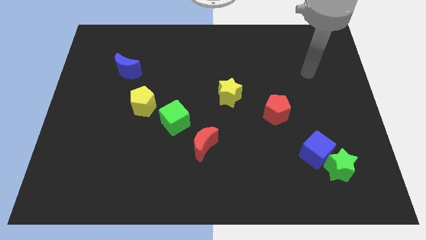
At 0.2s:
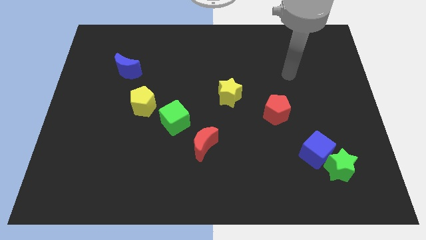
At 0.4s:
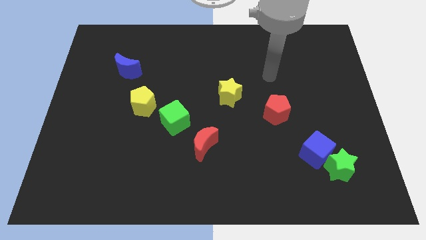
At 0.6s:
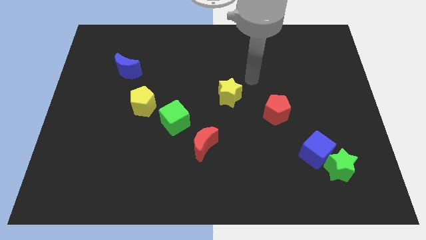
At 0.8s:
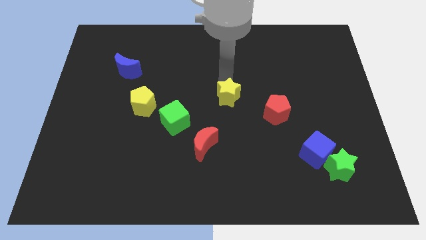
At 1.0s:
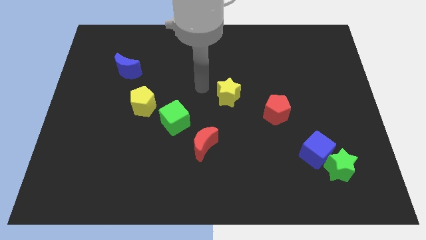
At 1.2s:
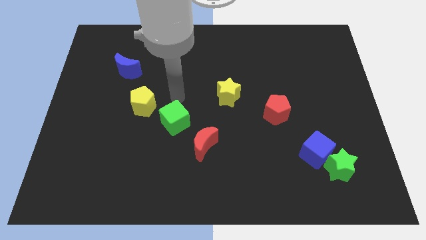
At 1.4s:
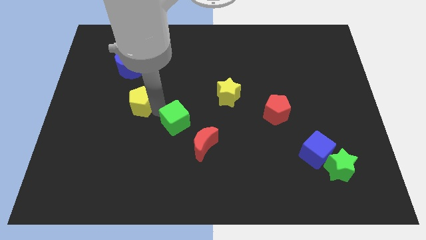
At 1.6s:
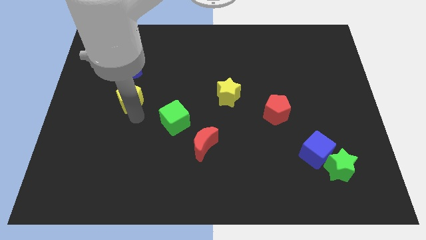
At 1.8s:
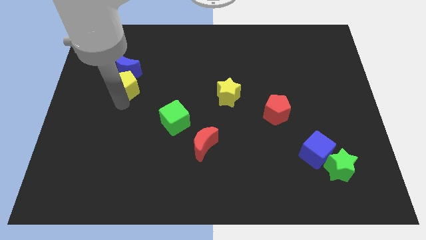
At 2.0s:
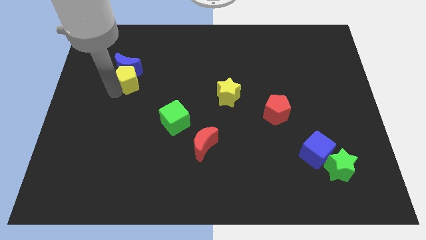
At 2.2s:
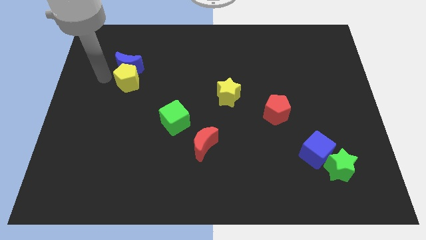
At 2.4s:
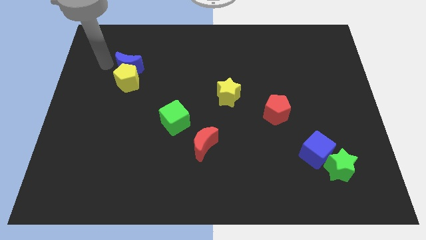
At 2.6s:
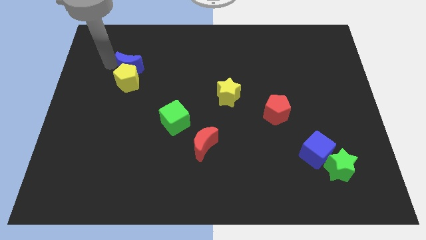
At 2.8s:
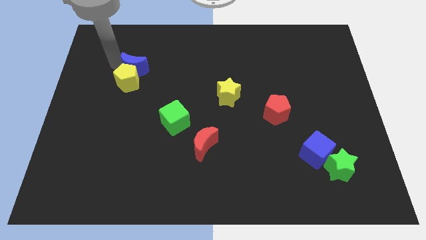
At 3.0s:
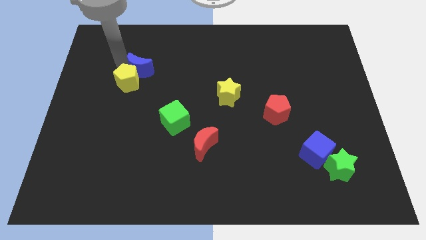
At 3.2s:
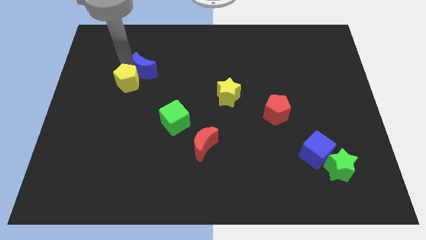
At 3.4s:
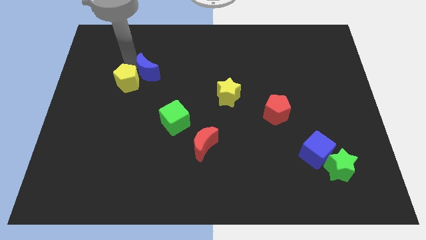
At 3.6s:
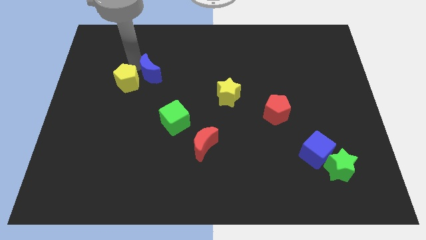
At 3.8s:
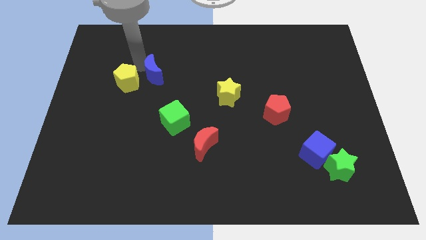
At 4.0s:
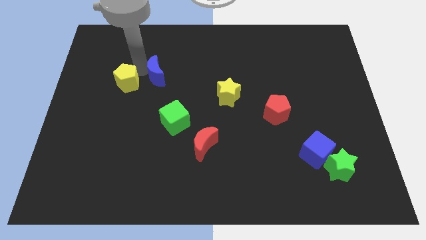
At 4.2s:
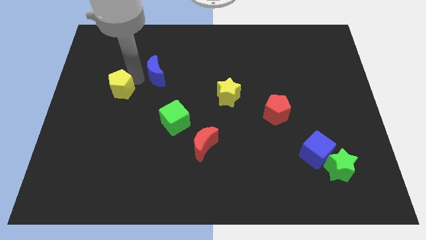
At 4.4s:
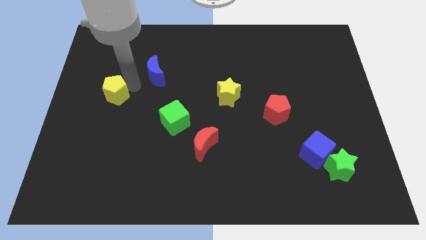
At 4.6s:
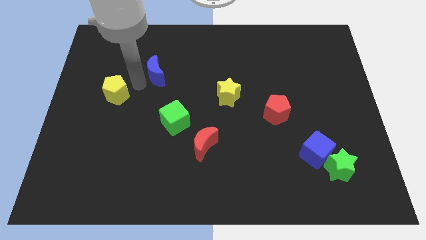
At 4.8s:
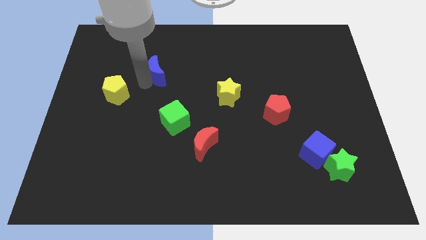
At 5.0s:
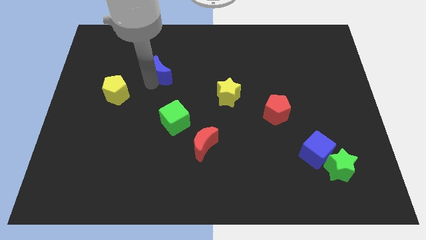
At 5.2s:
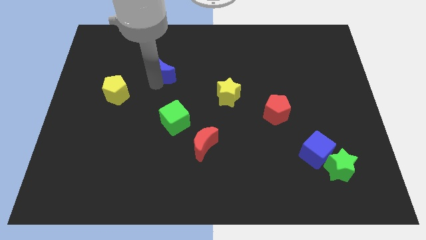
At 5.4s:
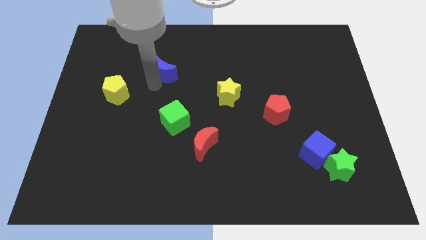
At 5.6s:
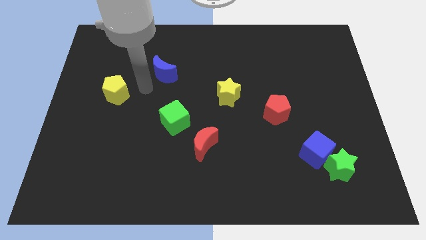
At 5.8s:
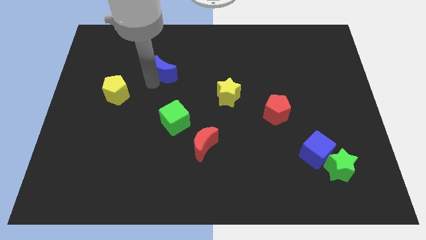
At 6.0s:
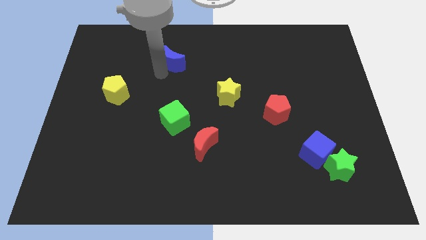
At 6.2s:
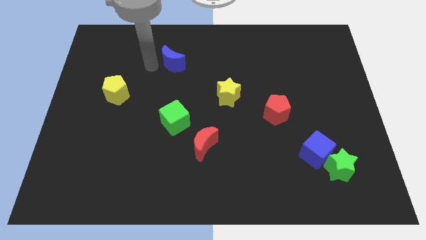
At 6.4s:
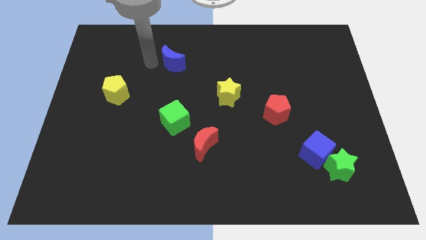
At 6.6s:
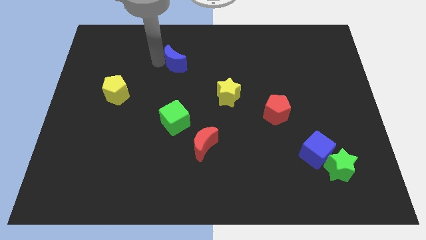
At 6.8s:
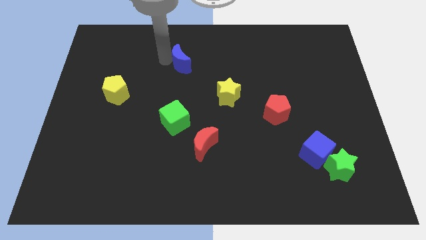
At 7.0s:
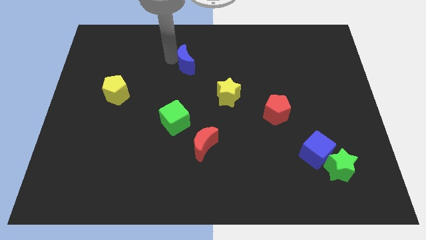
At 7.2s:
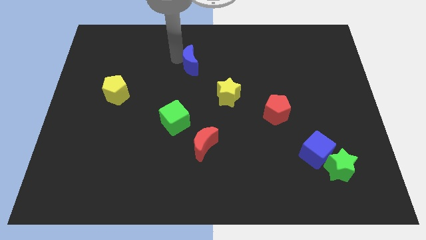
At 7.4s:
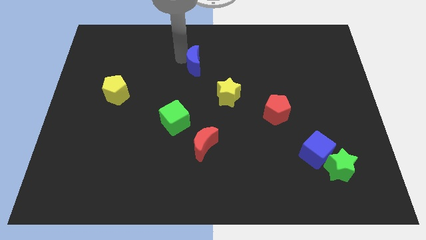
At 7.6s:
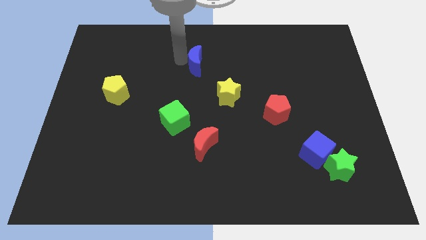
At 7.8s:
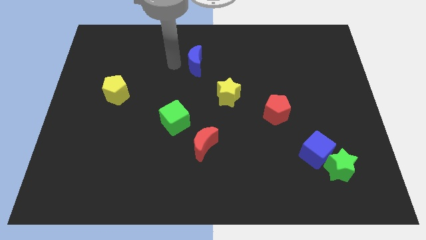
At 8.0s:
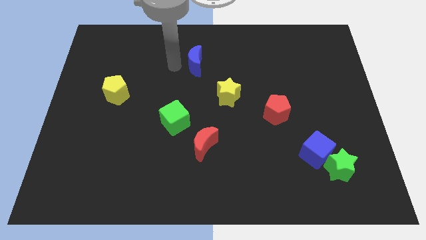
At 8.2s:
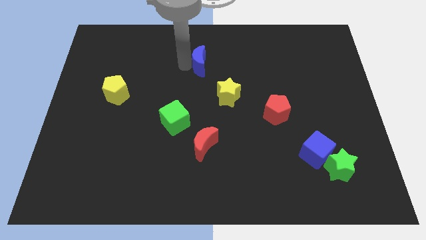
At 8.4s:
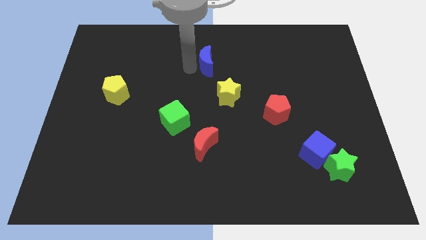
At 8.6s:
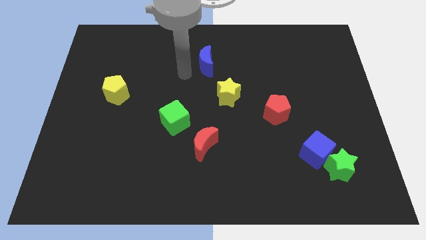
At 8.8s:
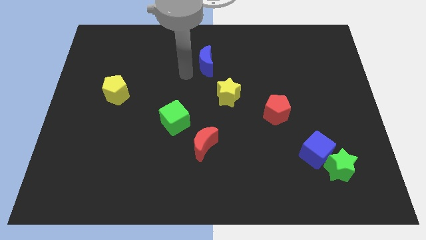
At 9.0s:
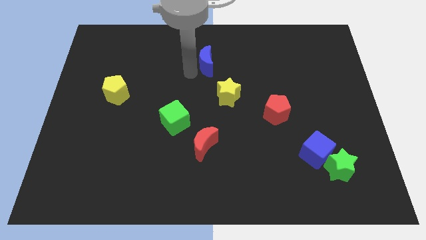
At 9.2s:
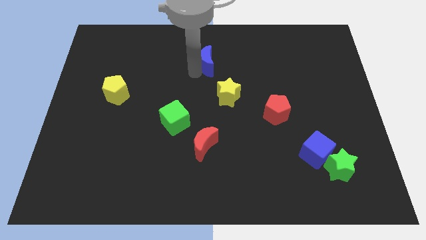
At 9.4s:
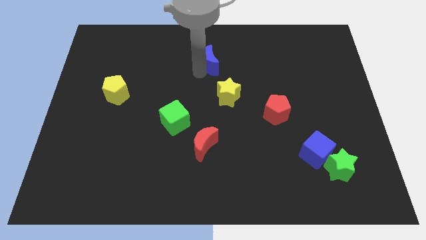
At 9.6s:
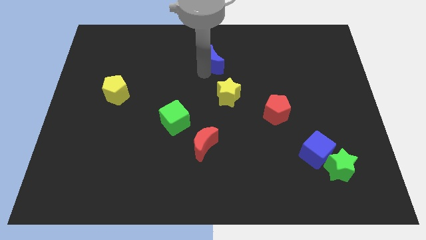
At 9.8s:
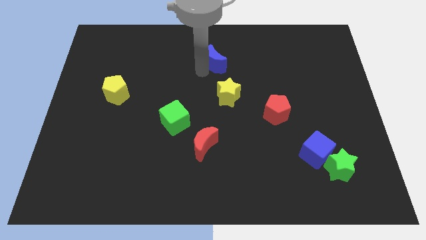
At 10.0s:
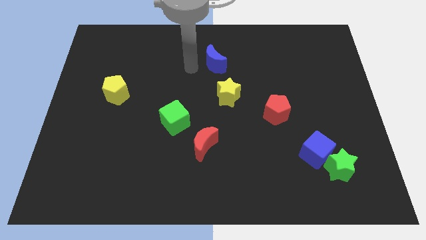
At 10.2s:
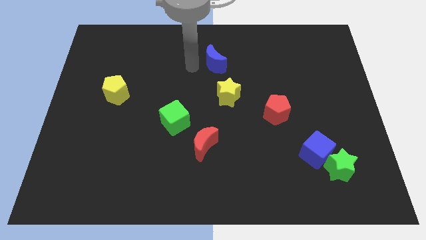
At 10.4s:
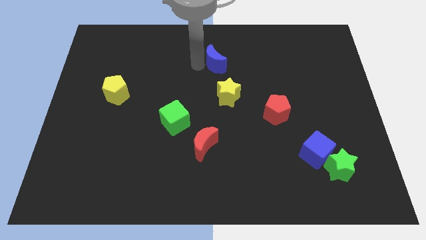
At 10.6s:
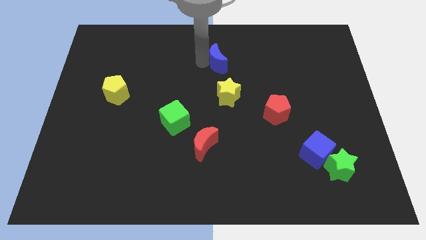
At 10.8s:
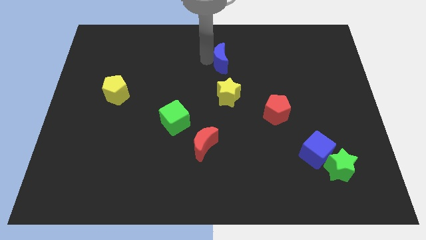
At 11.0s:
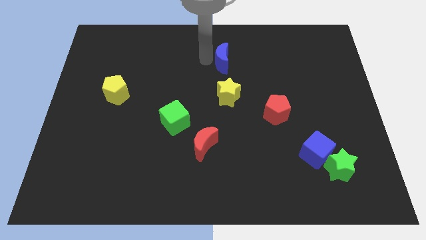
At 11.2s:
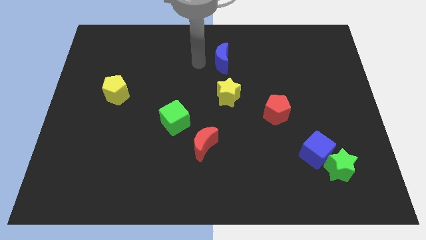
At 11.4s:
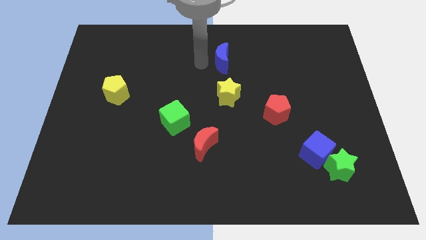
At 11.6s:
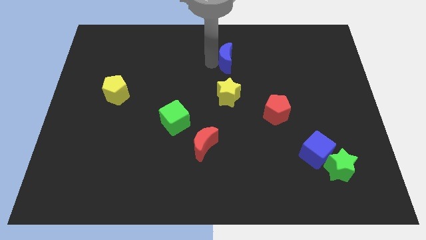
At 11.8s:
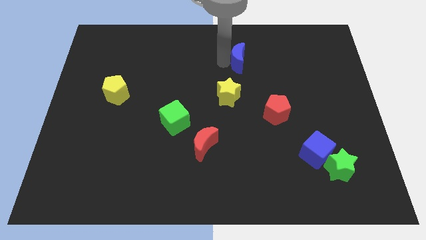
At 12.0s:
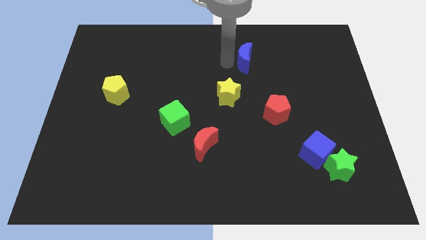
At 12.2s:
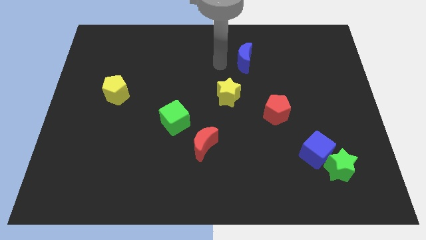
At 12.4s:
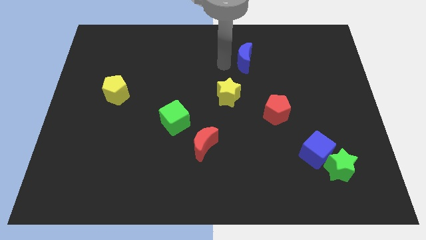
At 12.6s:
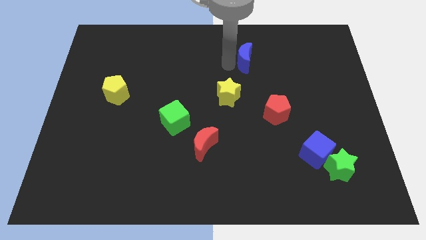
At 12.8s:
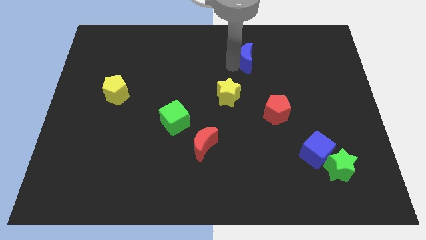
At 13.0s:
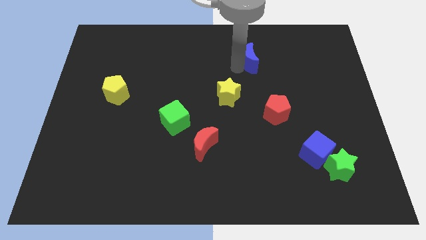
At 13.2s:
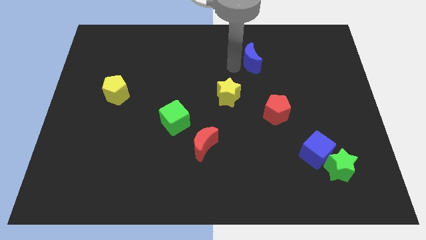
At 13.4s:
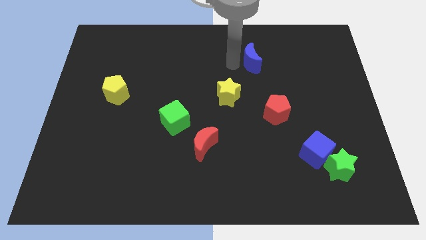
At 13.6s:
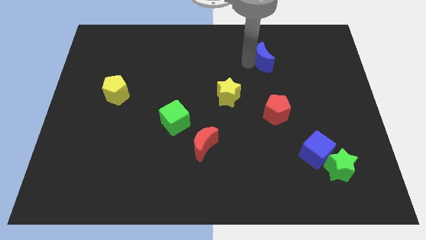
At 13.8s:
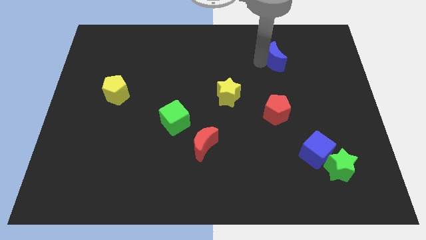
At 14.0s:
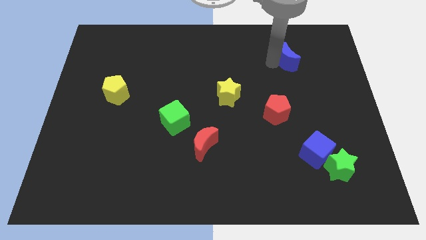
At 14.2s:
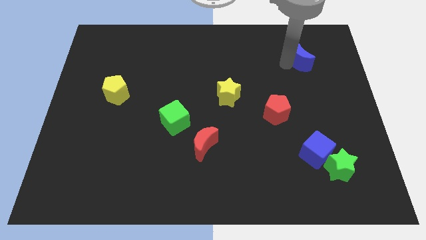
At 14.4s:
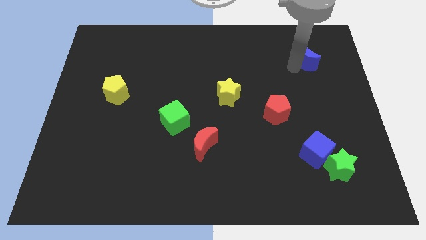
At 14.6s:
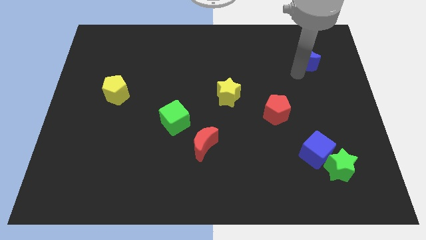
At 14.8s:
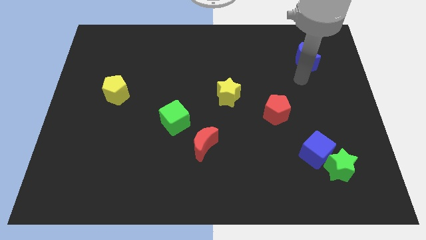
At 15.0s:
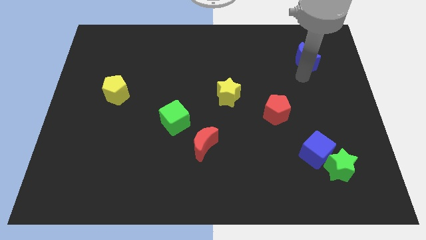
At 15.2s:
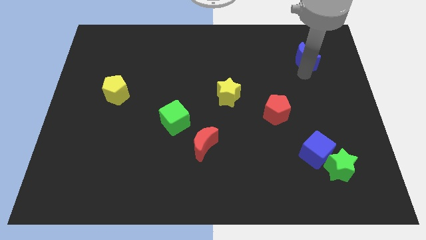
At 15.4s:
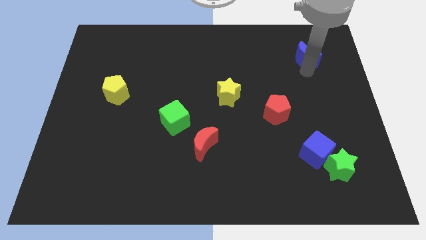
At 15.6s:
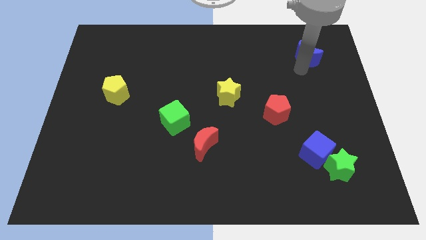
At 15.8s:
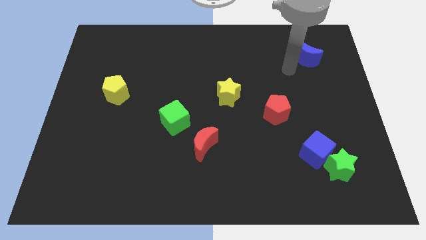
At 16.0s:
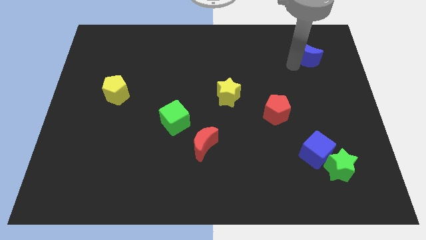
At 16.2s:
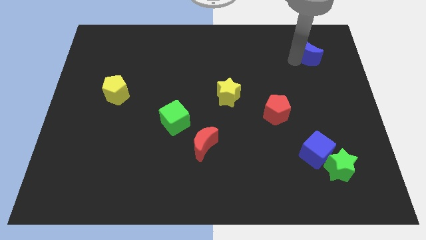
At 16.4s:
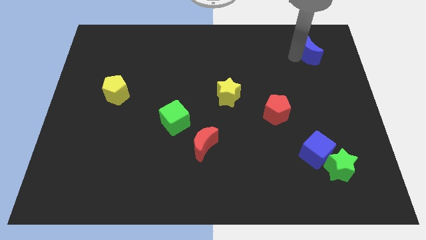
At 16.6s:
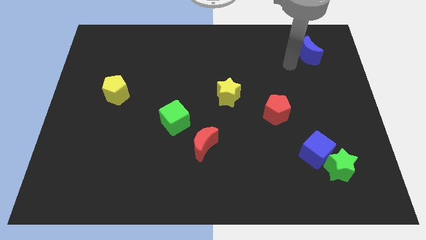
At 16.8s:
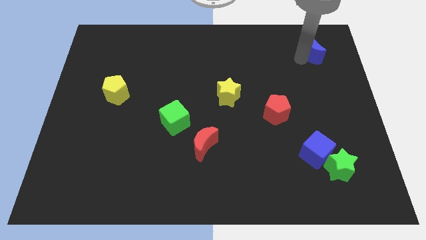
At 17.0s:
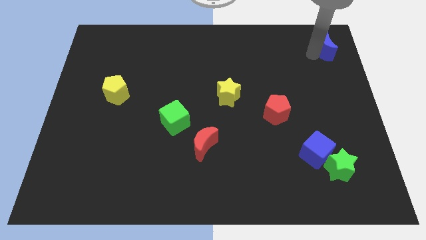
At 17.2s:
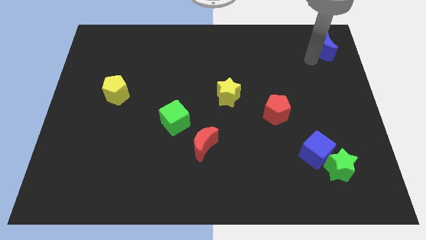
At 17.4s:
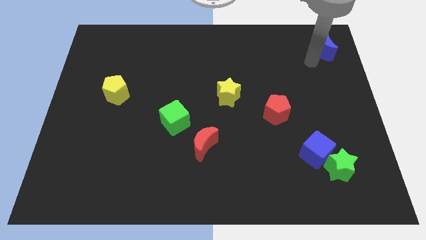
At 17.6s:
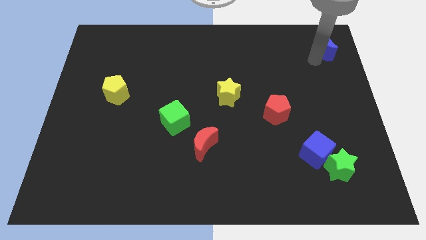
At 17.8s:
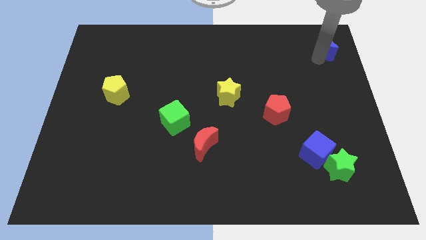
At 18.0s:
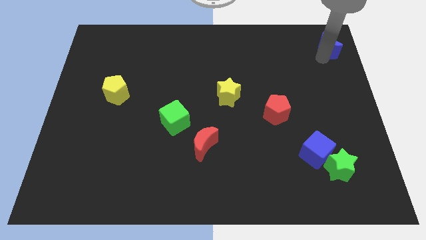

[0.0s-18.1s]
move the blue moon to the top right corner
